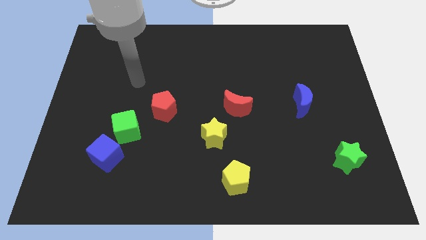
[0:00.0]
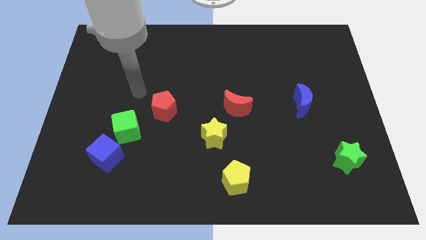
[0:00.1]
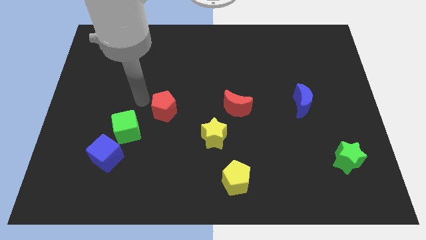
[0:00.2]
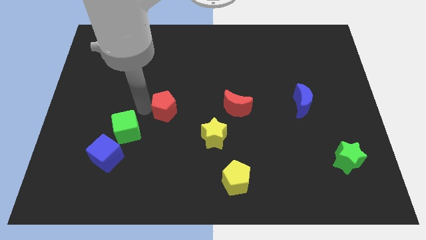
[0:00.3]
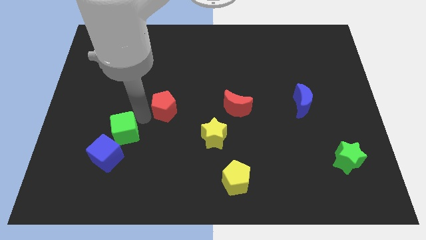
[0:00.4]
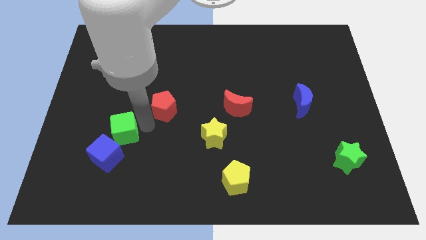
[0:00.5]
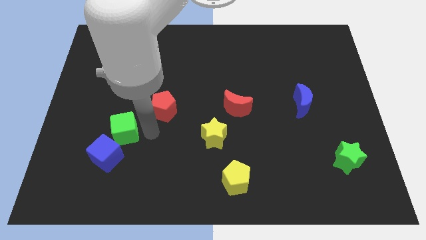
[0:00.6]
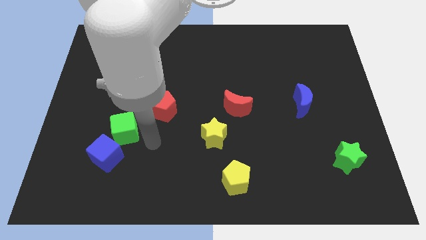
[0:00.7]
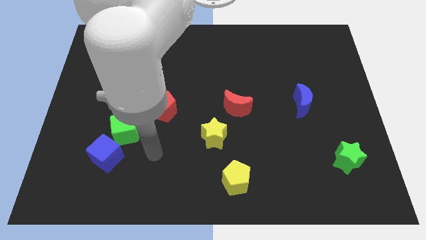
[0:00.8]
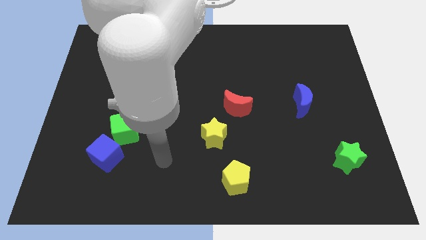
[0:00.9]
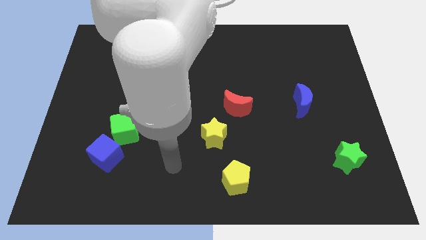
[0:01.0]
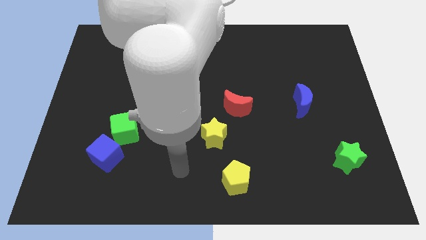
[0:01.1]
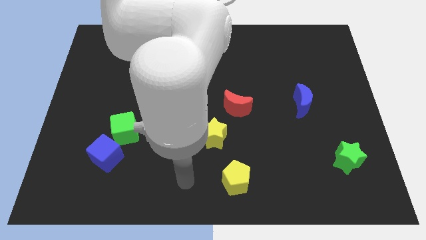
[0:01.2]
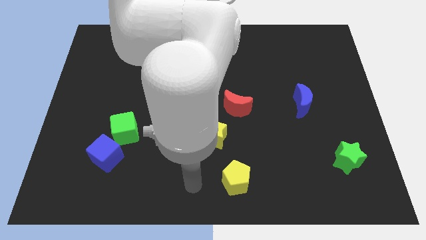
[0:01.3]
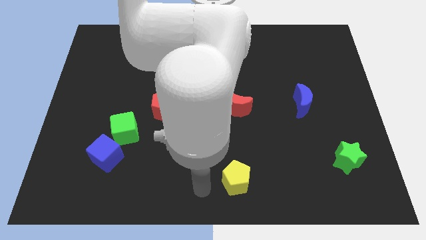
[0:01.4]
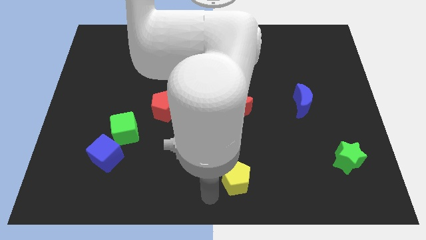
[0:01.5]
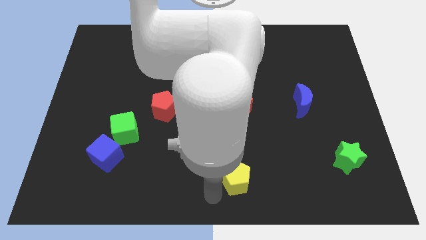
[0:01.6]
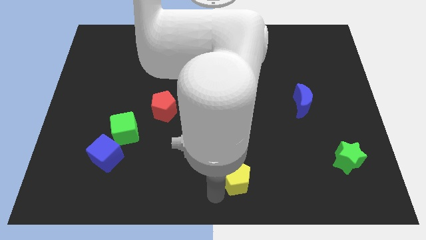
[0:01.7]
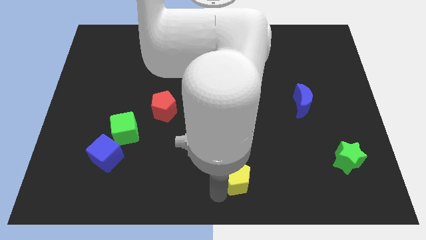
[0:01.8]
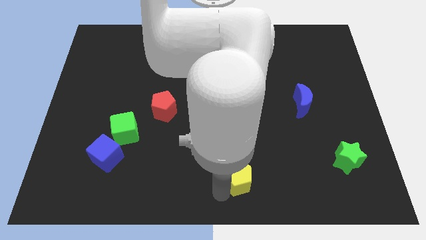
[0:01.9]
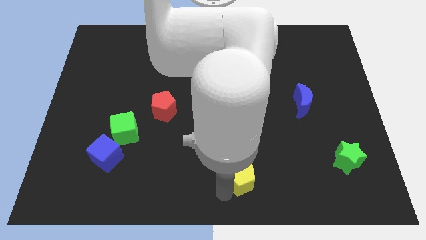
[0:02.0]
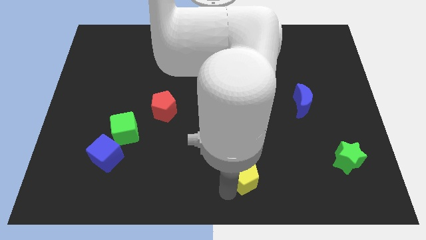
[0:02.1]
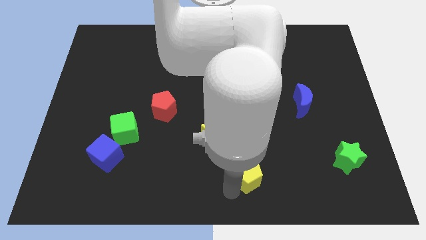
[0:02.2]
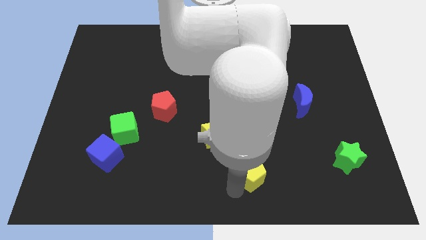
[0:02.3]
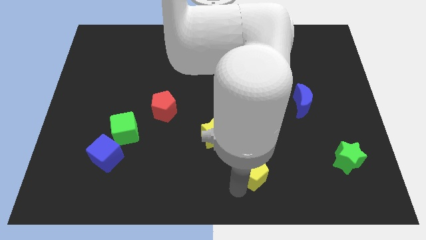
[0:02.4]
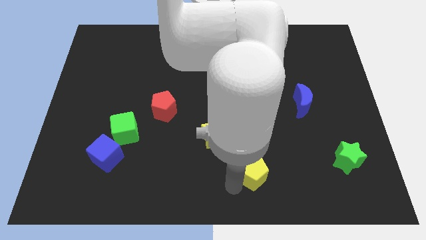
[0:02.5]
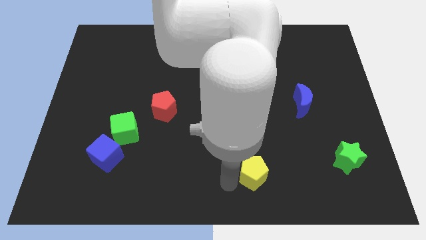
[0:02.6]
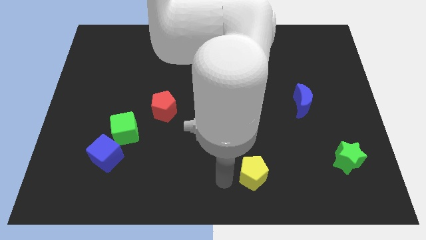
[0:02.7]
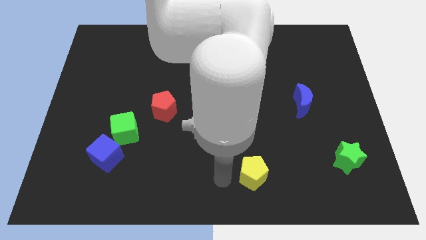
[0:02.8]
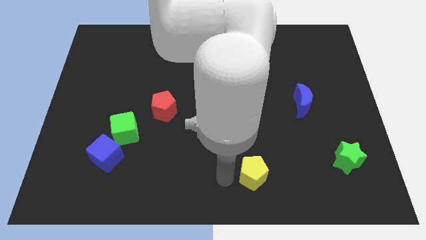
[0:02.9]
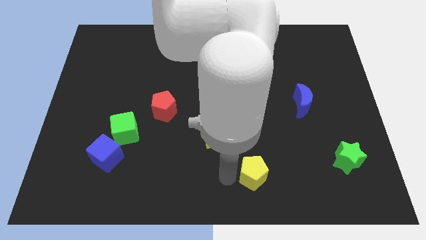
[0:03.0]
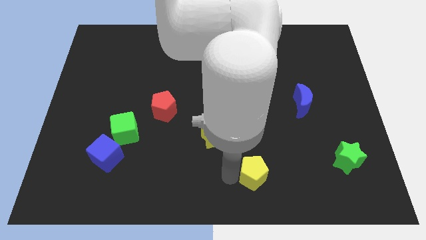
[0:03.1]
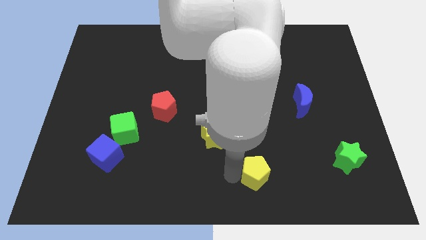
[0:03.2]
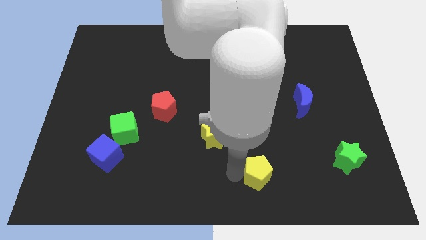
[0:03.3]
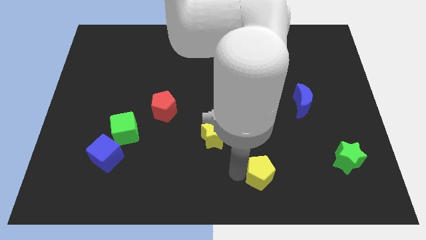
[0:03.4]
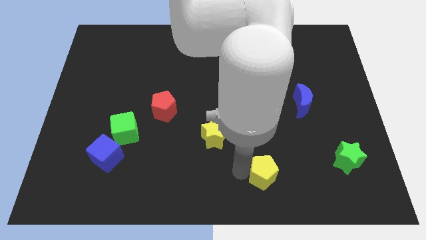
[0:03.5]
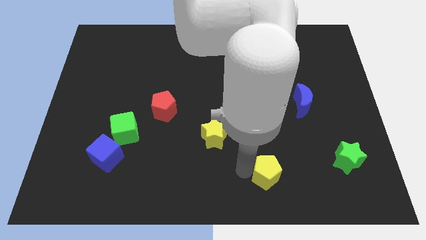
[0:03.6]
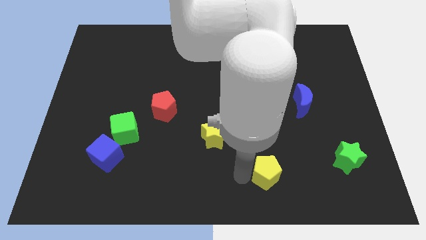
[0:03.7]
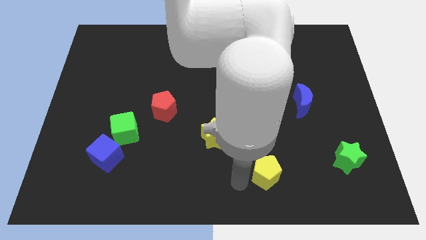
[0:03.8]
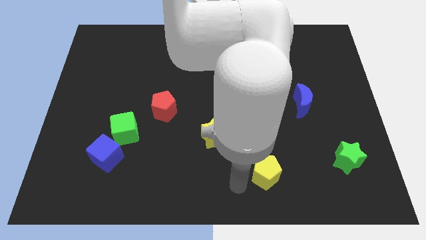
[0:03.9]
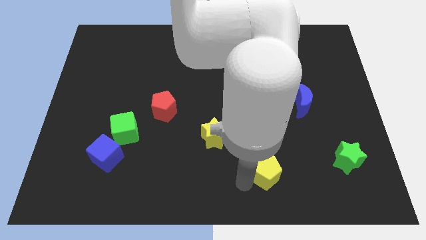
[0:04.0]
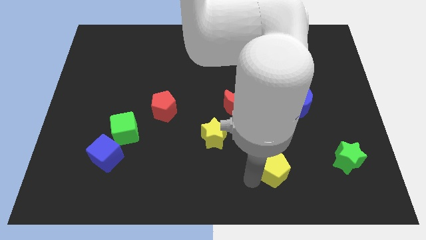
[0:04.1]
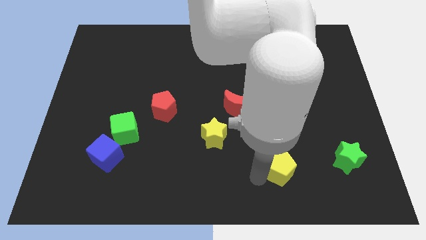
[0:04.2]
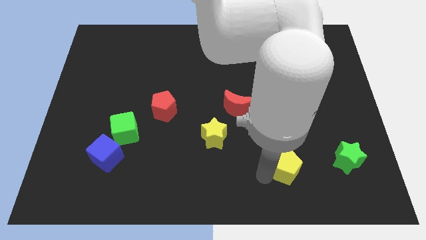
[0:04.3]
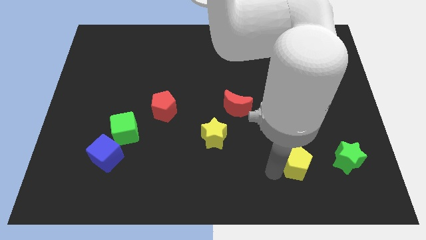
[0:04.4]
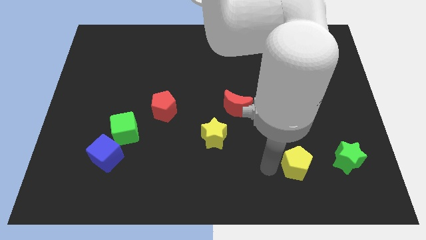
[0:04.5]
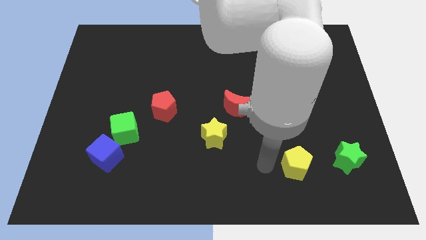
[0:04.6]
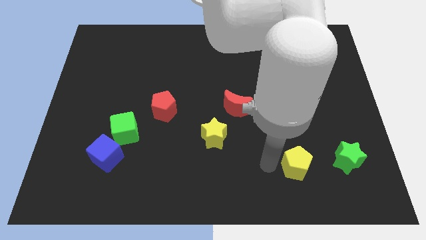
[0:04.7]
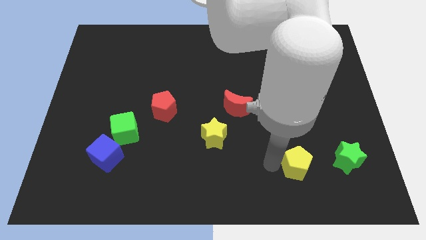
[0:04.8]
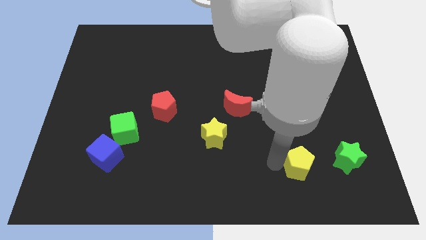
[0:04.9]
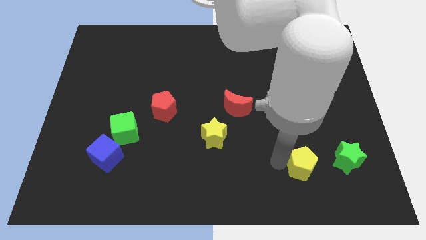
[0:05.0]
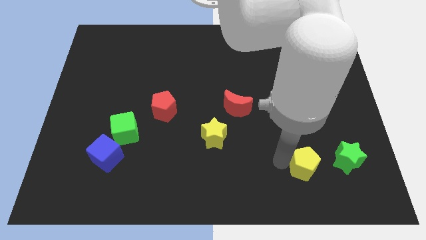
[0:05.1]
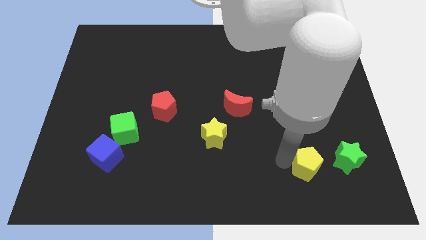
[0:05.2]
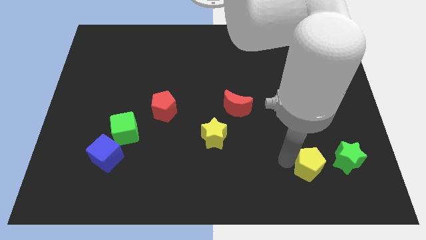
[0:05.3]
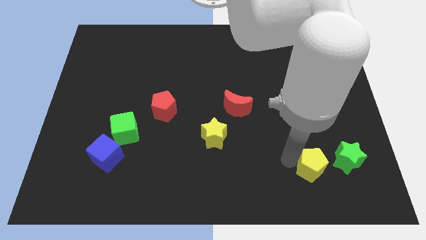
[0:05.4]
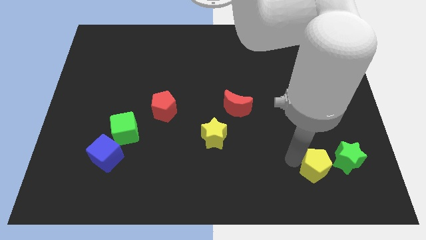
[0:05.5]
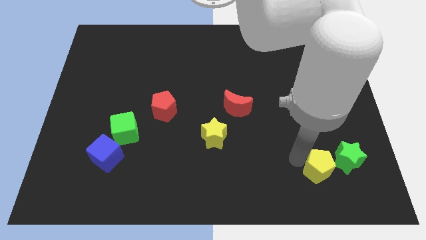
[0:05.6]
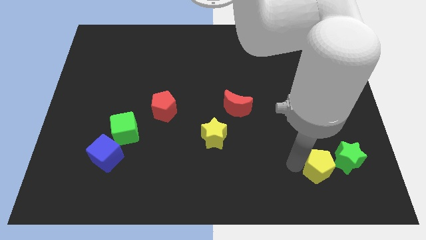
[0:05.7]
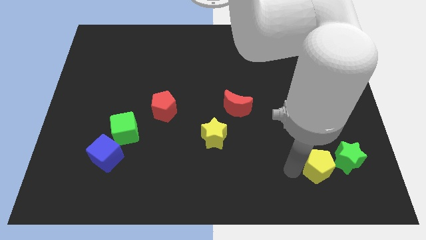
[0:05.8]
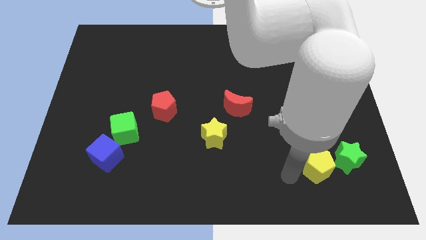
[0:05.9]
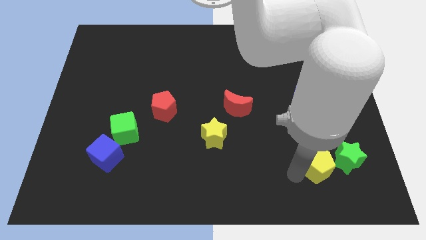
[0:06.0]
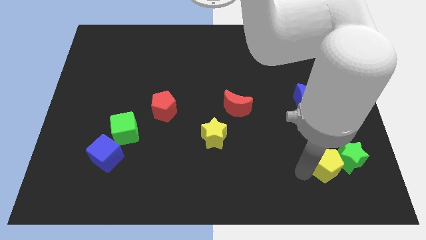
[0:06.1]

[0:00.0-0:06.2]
move the yellow pentagon next to the green star
